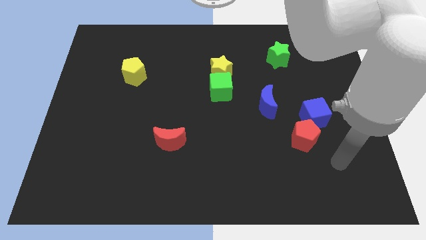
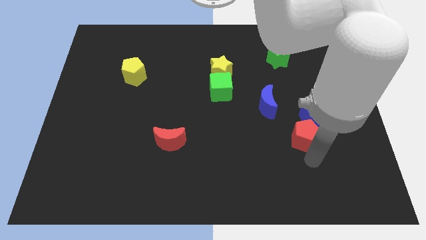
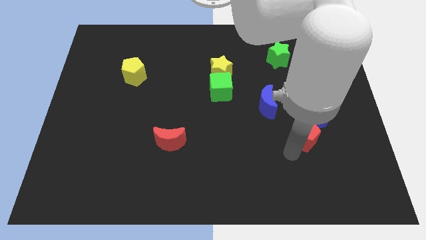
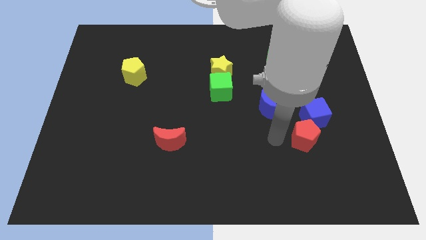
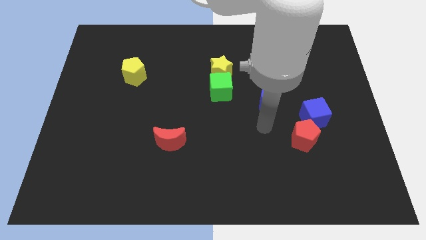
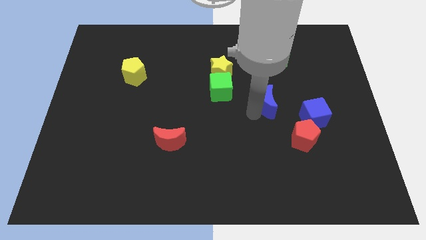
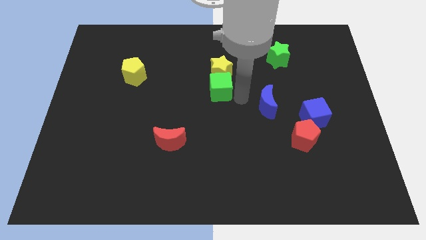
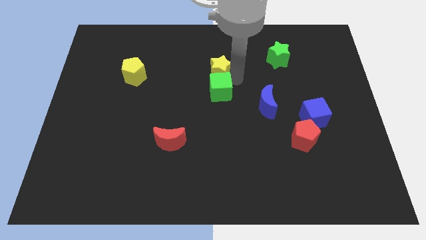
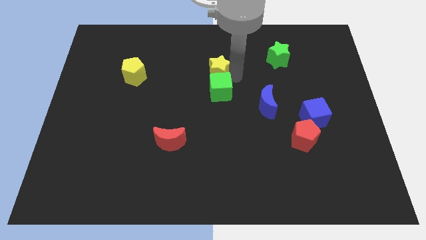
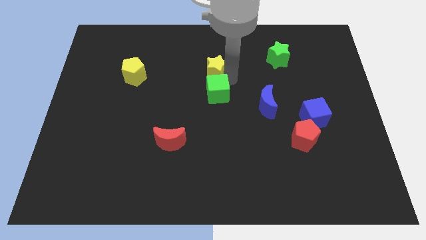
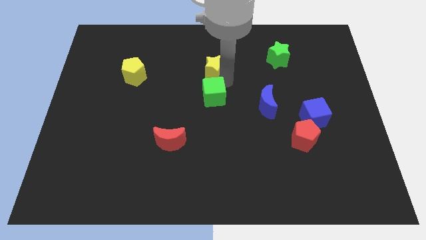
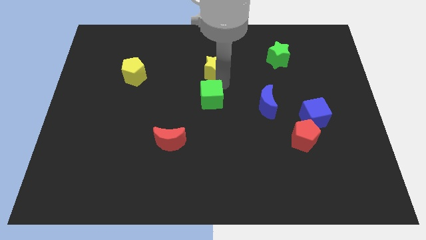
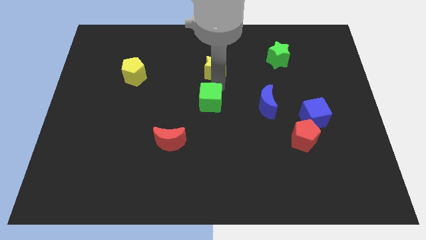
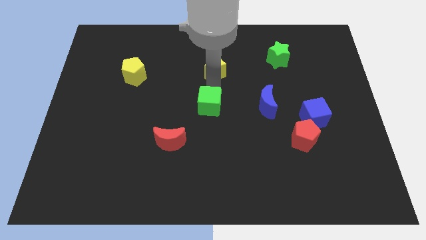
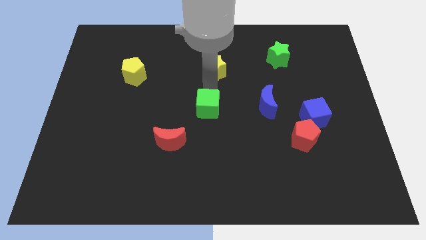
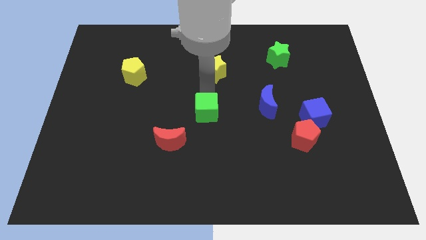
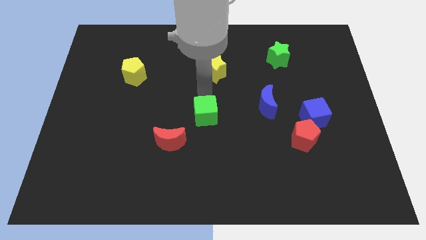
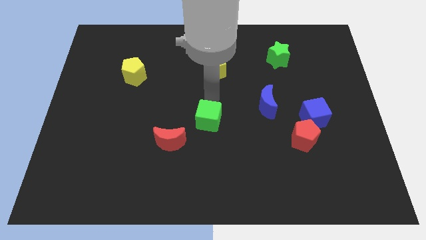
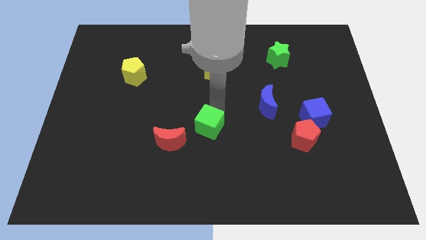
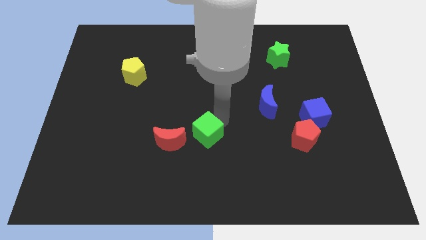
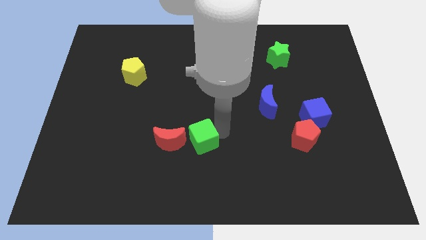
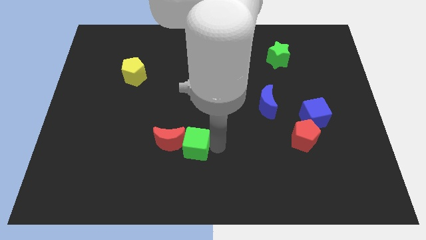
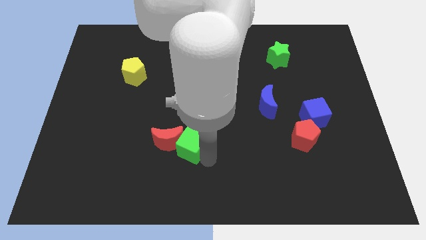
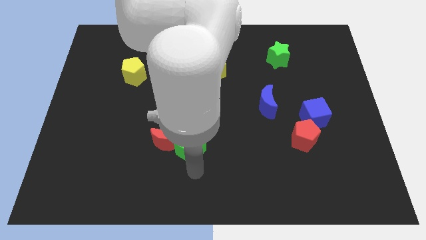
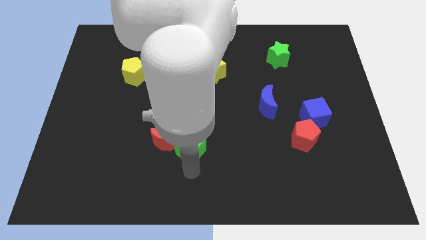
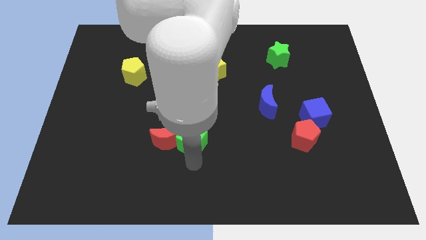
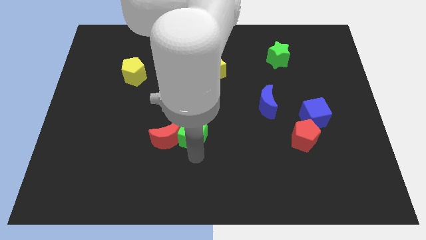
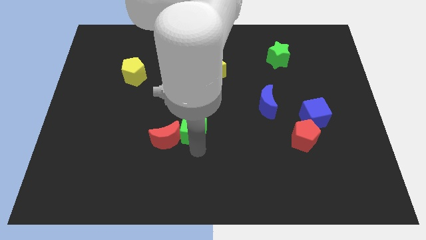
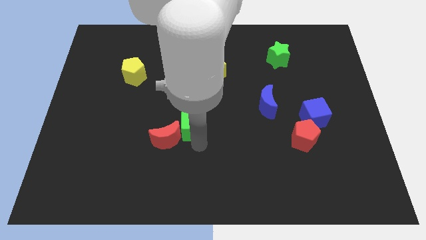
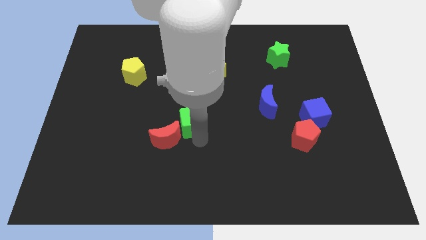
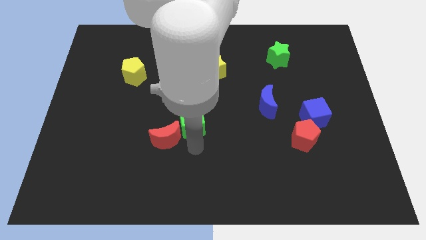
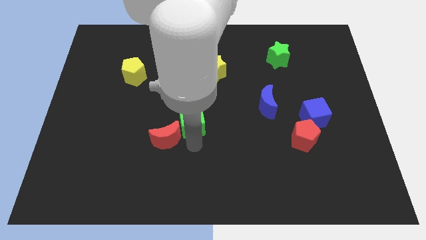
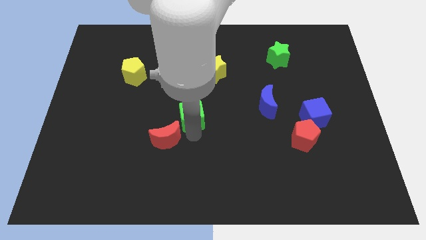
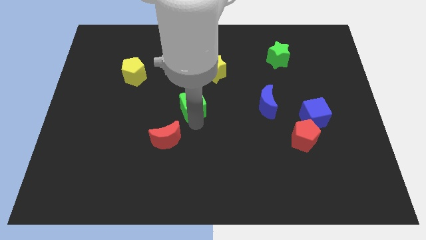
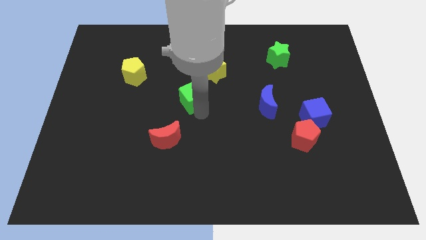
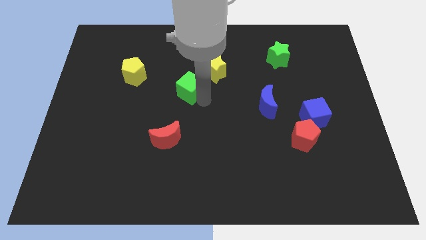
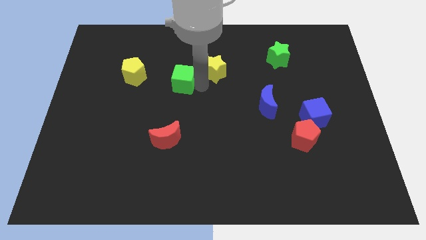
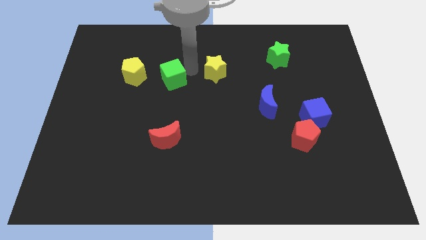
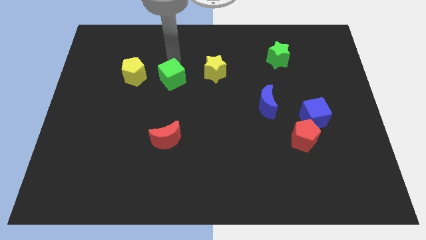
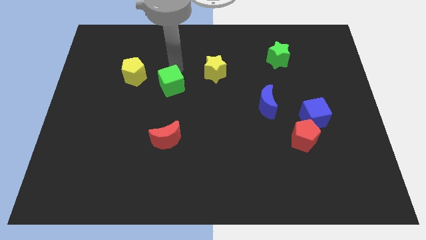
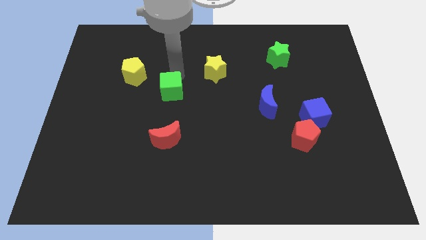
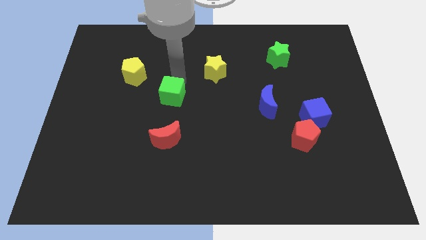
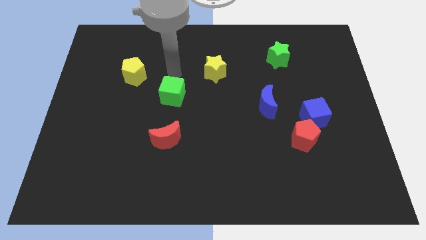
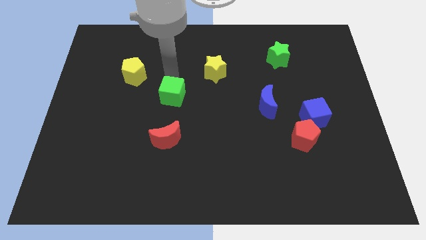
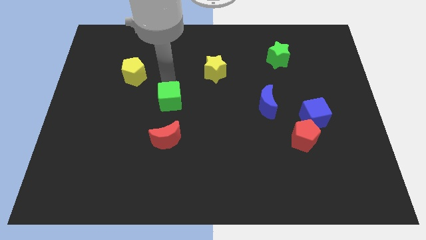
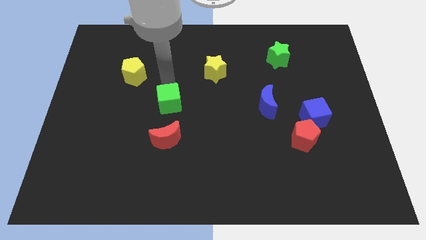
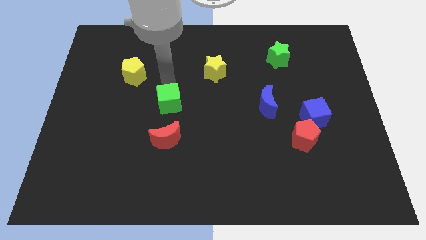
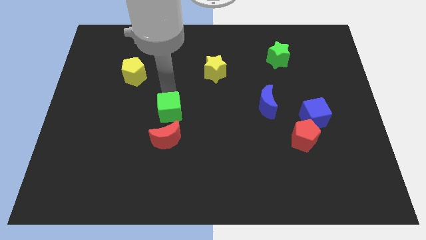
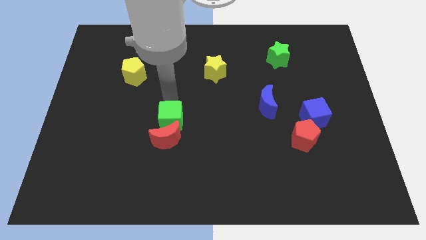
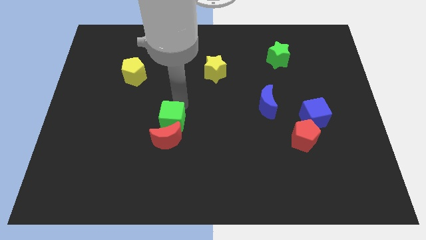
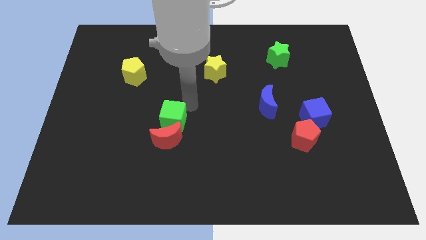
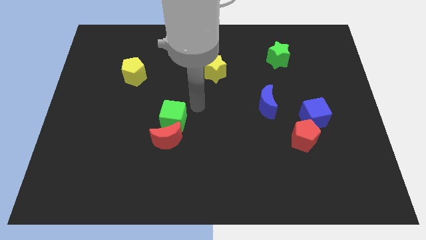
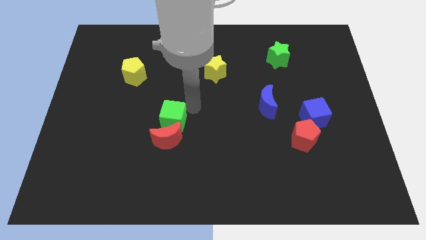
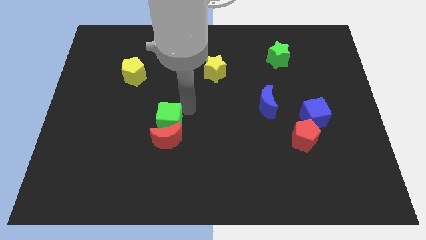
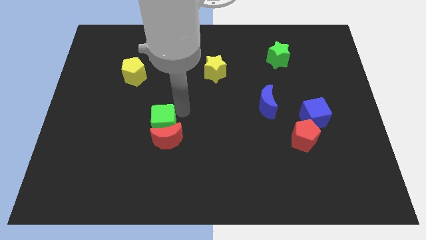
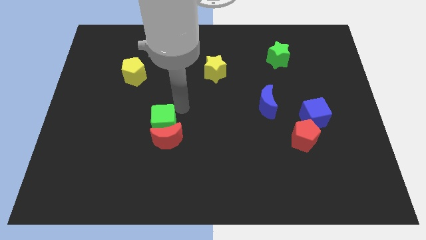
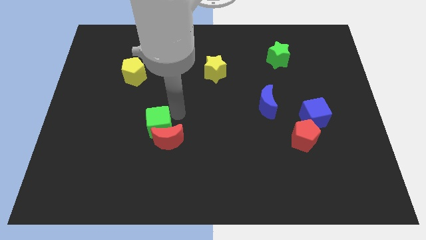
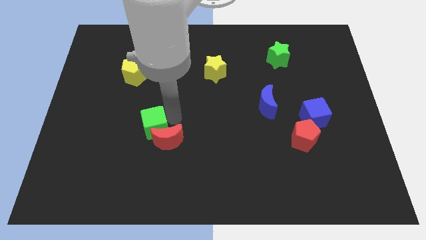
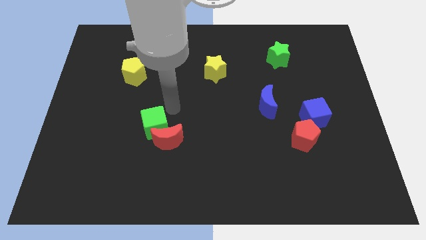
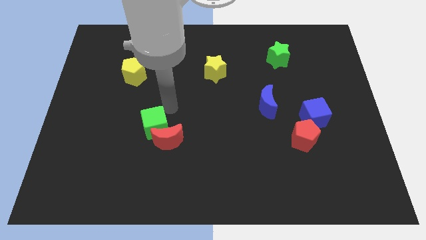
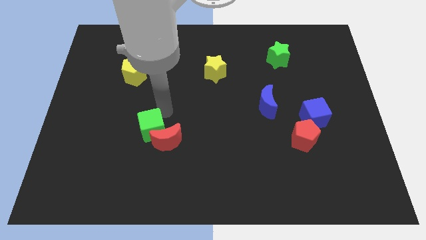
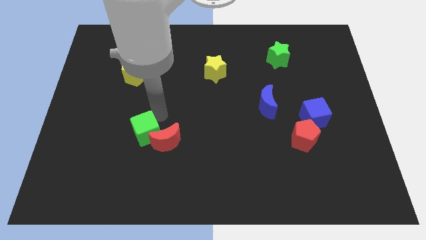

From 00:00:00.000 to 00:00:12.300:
push the green cube diagonally downwards and left

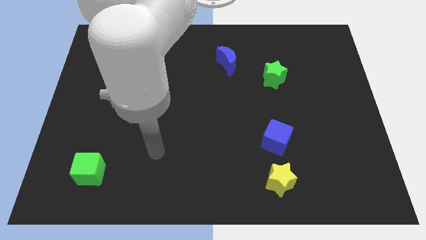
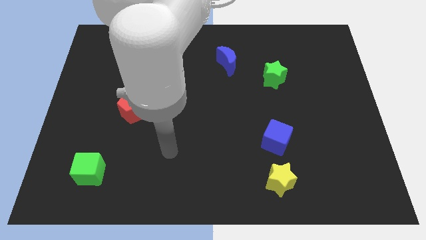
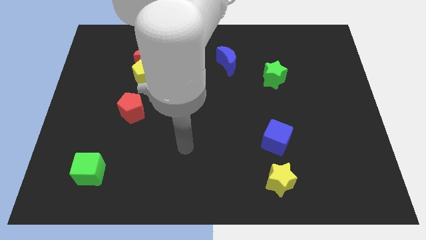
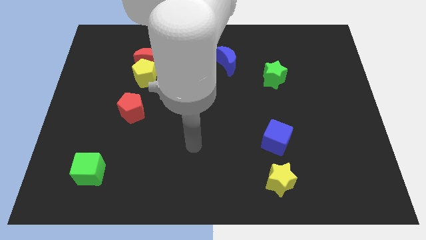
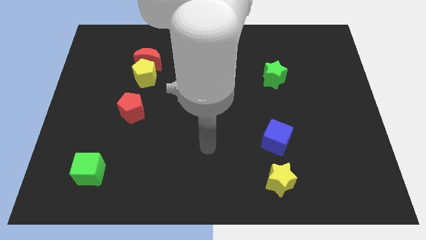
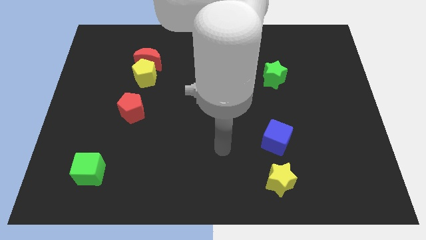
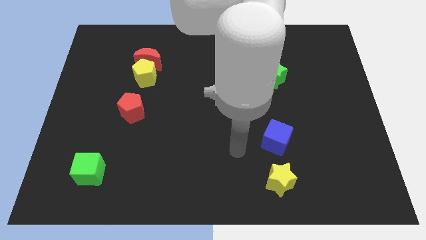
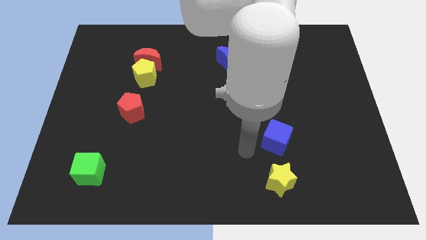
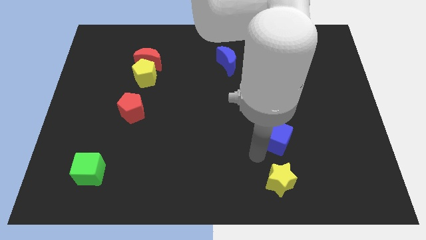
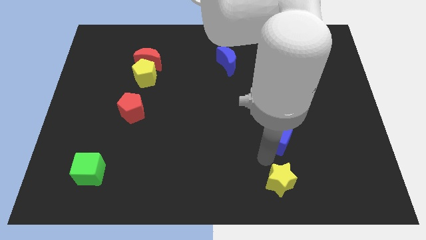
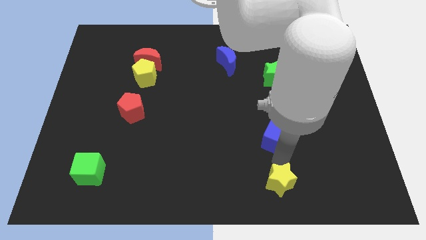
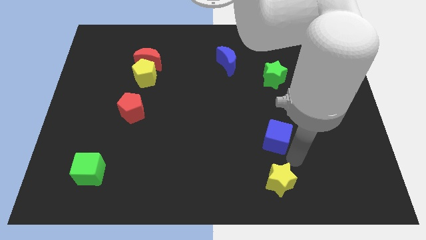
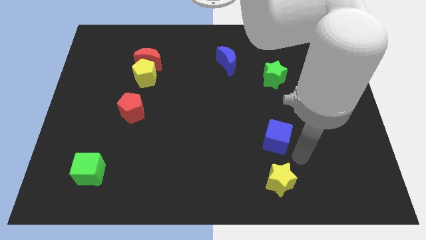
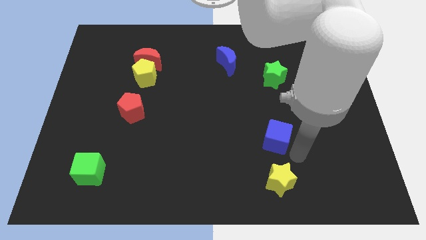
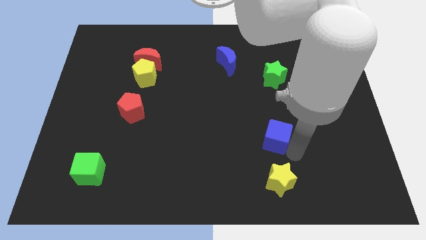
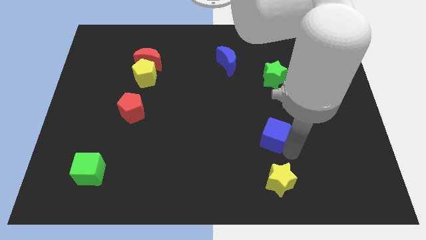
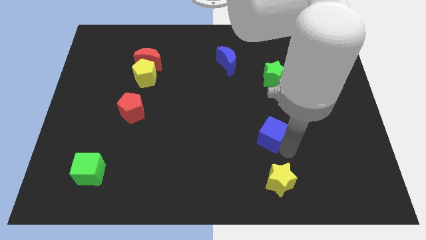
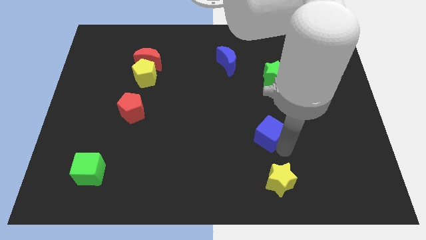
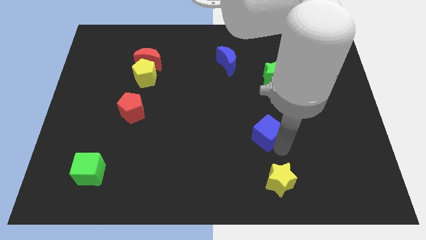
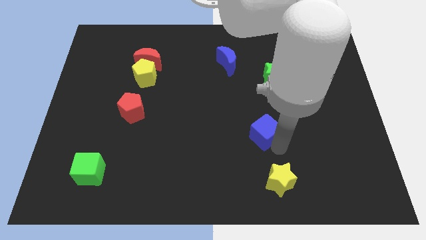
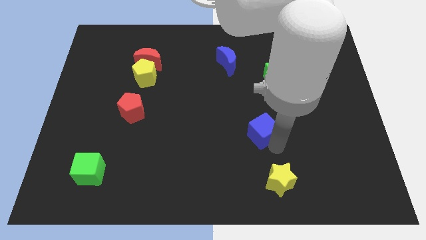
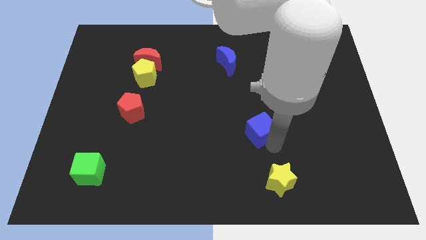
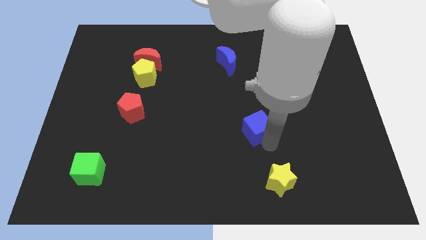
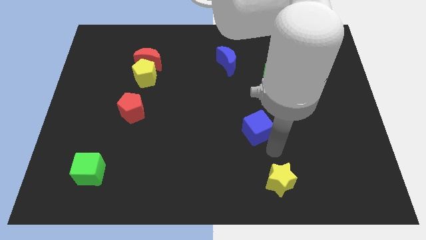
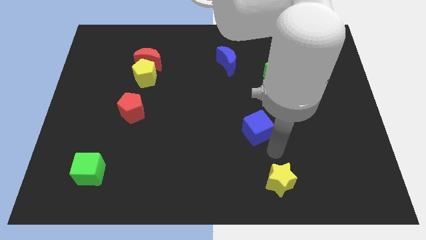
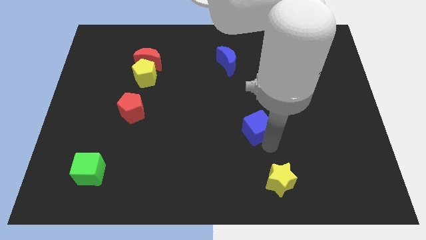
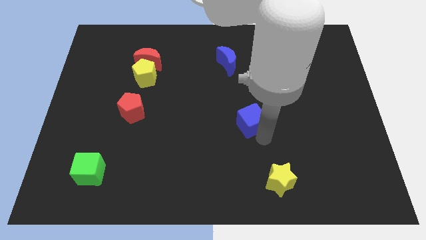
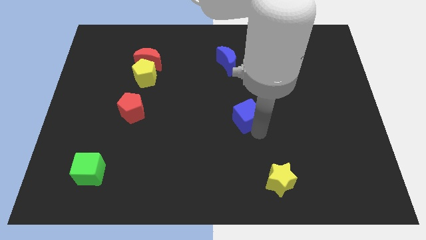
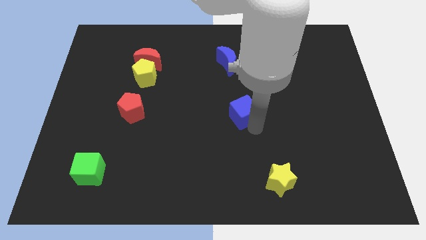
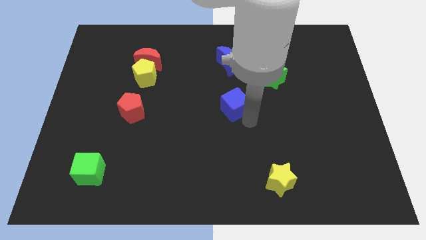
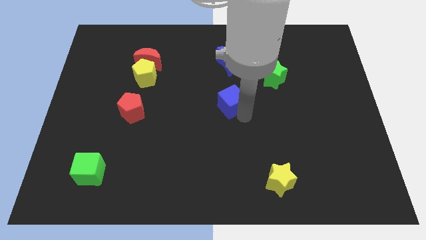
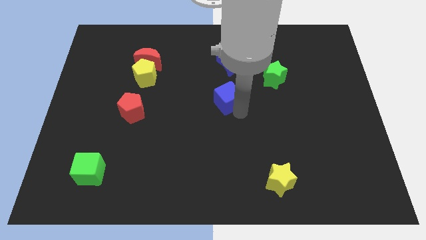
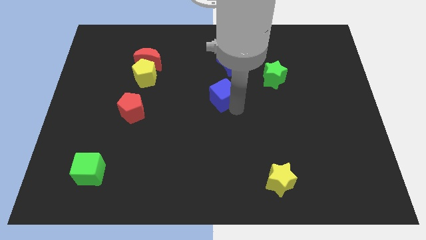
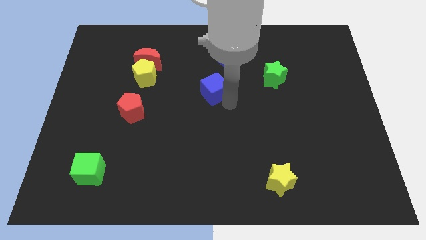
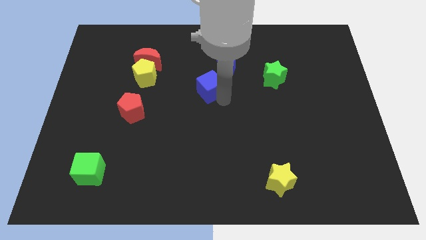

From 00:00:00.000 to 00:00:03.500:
move the blue cube upwards and to the left diagonally
